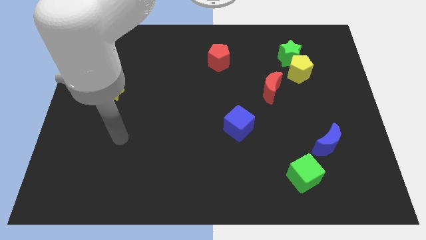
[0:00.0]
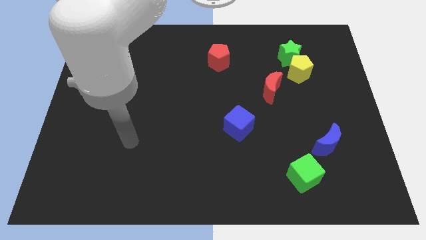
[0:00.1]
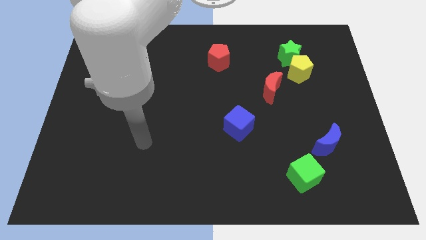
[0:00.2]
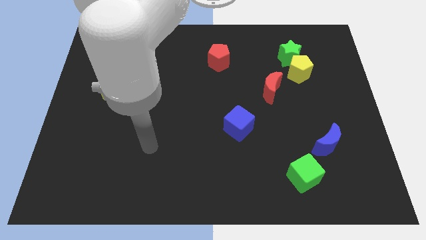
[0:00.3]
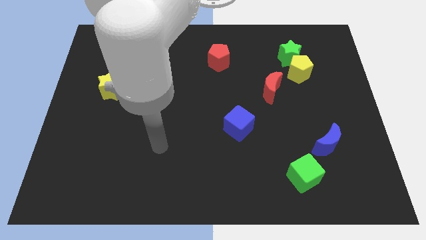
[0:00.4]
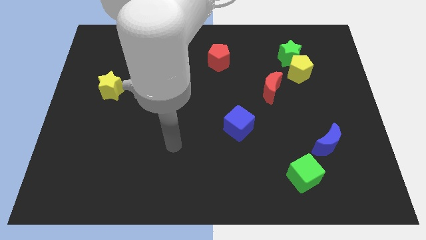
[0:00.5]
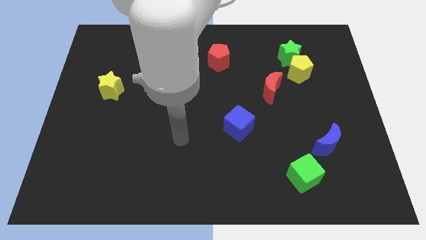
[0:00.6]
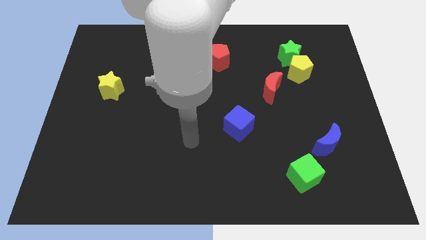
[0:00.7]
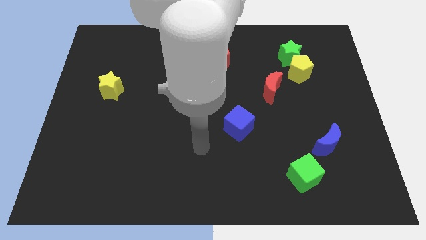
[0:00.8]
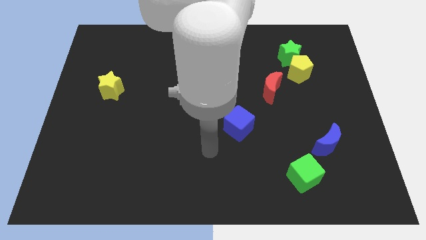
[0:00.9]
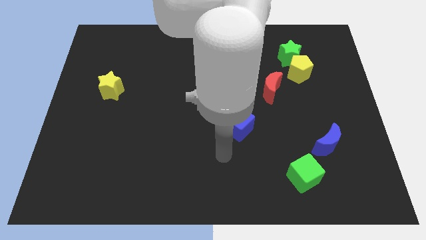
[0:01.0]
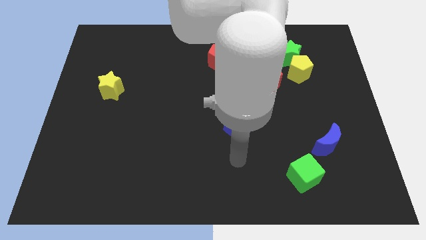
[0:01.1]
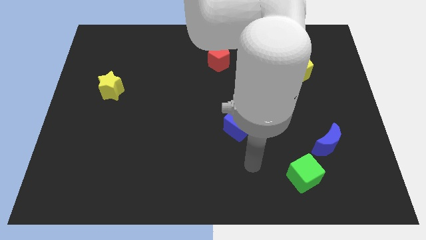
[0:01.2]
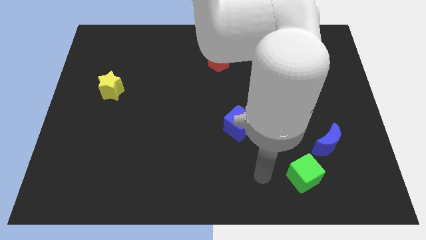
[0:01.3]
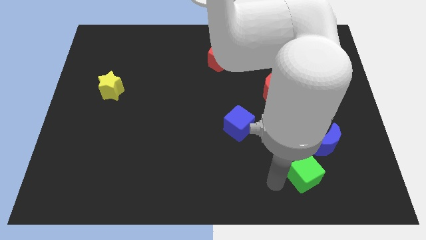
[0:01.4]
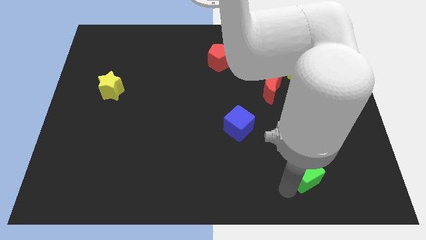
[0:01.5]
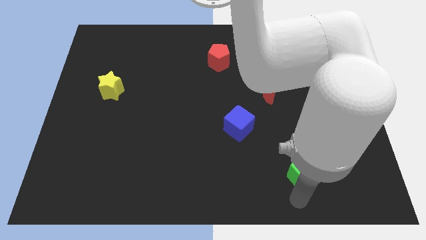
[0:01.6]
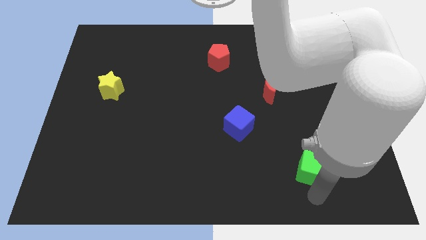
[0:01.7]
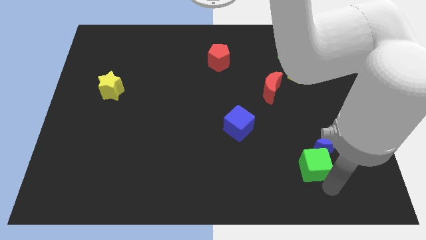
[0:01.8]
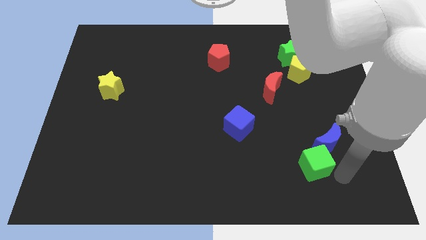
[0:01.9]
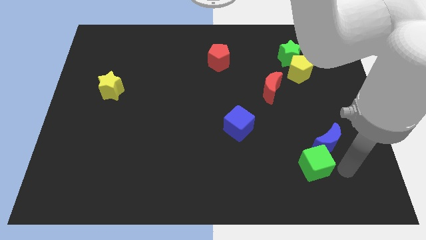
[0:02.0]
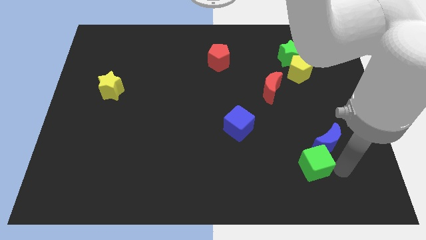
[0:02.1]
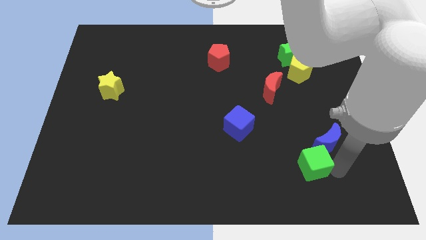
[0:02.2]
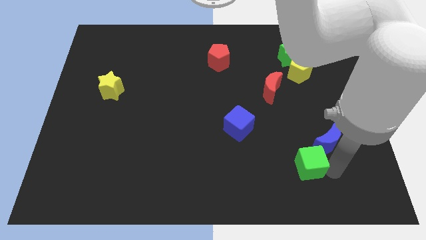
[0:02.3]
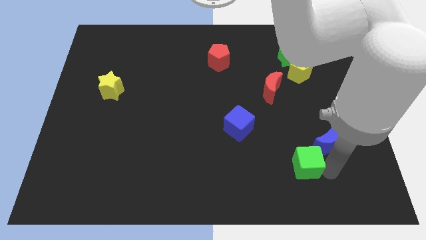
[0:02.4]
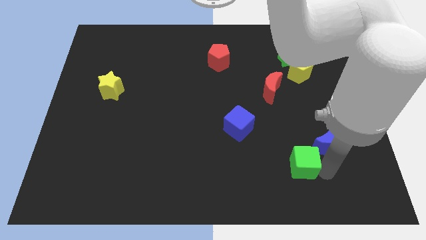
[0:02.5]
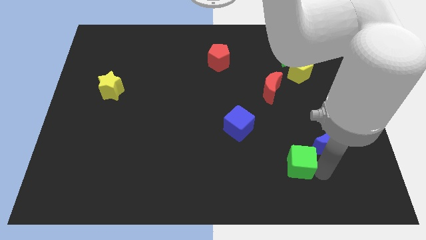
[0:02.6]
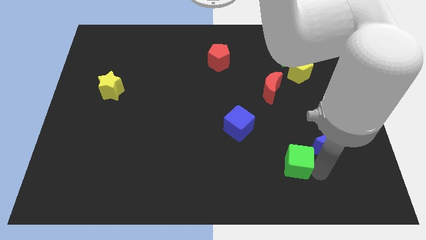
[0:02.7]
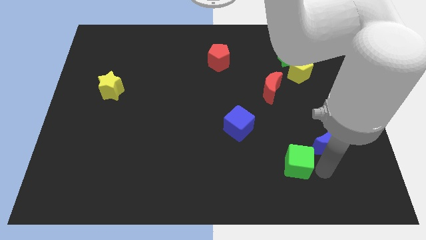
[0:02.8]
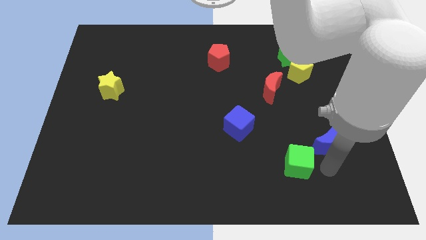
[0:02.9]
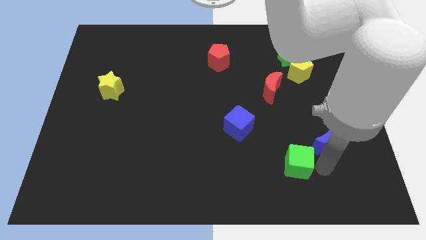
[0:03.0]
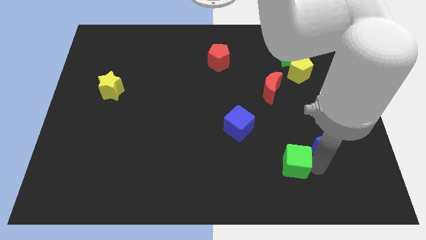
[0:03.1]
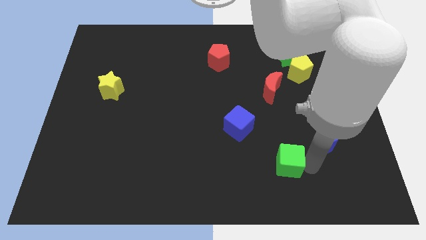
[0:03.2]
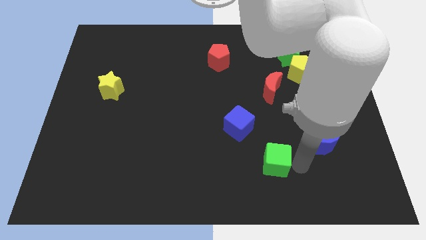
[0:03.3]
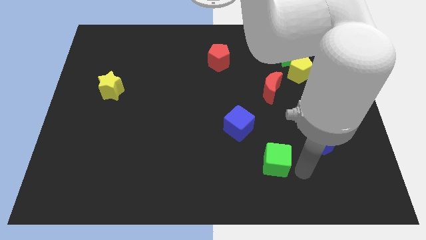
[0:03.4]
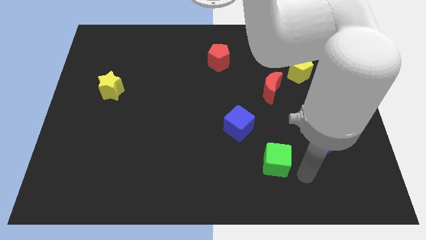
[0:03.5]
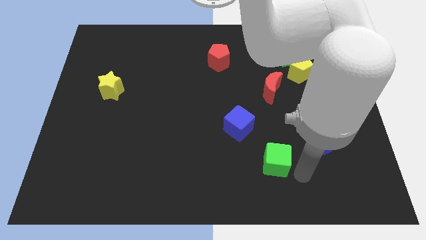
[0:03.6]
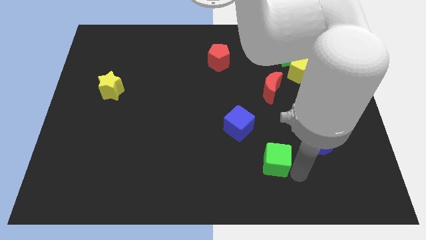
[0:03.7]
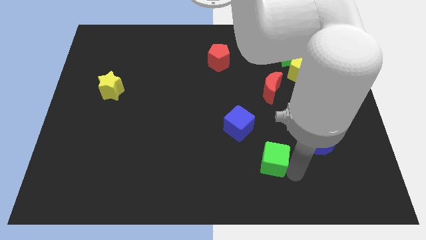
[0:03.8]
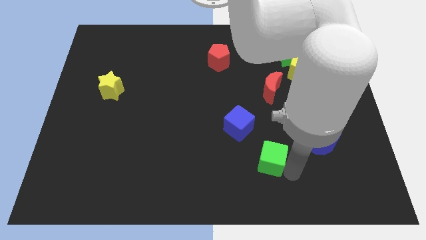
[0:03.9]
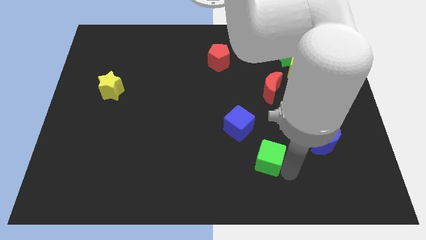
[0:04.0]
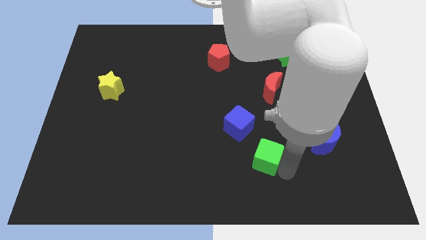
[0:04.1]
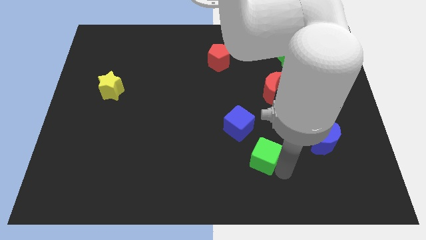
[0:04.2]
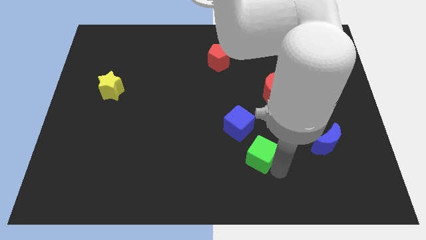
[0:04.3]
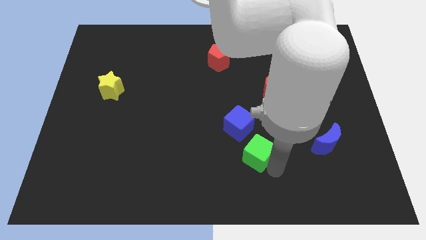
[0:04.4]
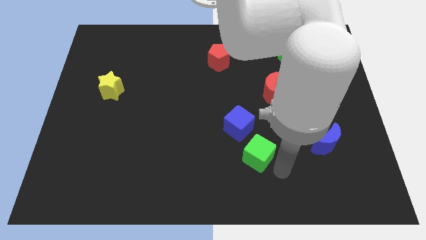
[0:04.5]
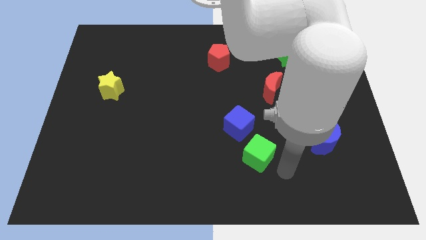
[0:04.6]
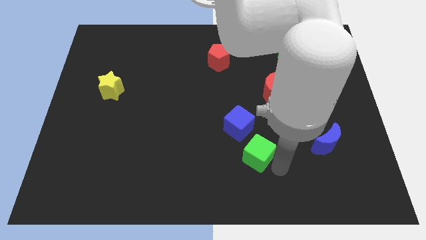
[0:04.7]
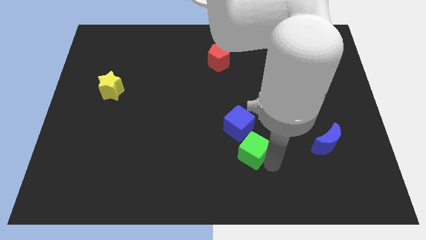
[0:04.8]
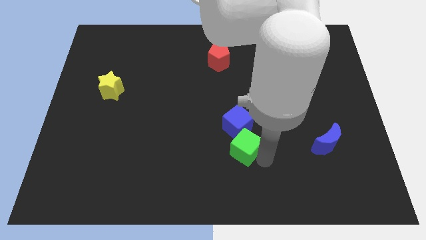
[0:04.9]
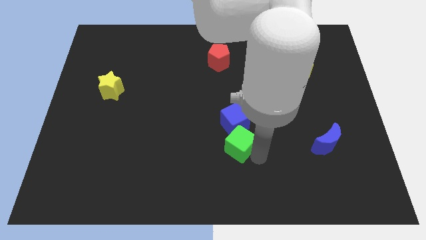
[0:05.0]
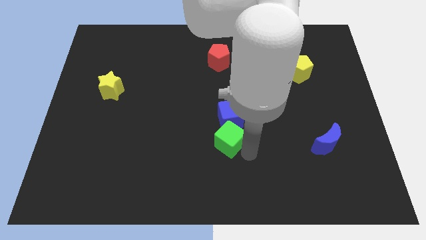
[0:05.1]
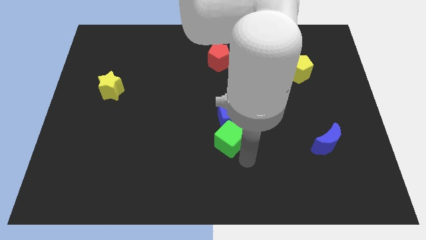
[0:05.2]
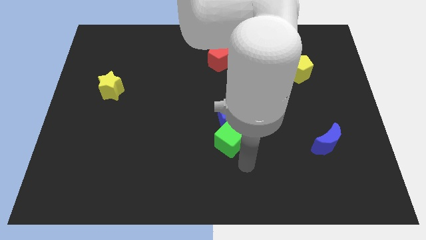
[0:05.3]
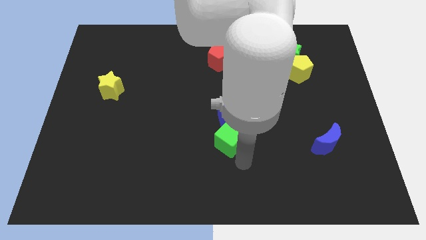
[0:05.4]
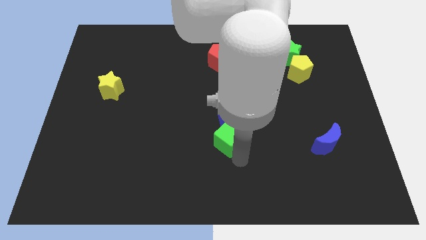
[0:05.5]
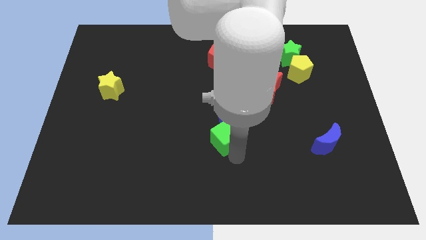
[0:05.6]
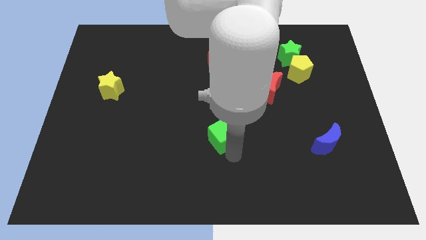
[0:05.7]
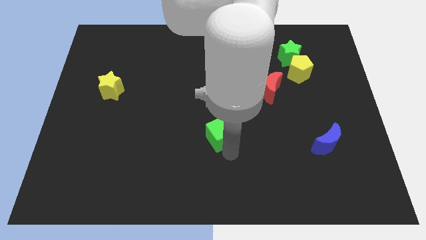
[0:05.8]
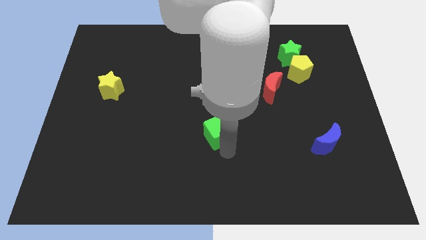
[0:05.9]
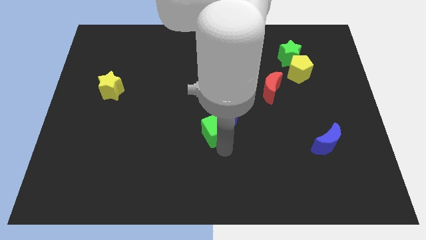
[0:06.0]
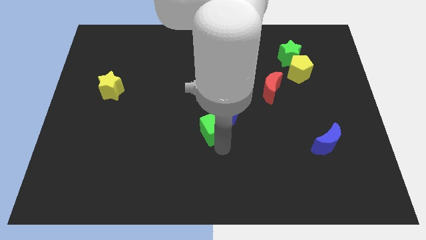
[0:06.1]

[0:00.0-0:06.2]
move the green cube upwards and then to the left

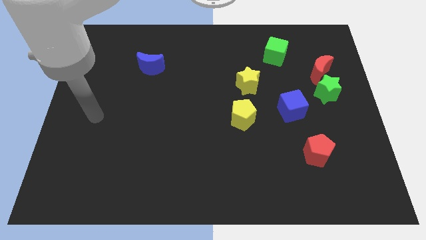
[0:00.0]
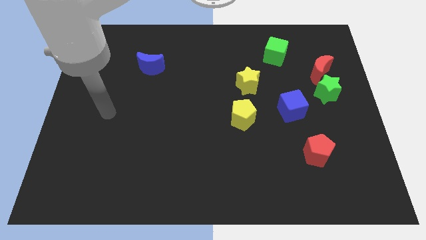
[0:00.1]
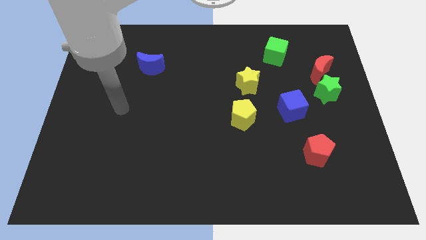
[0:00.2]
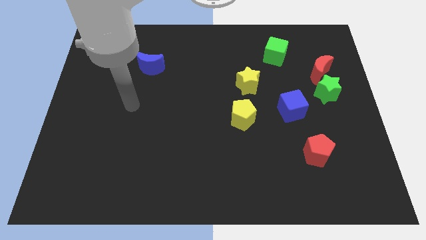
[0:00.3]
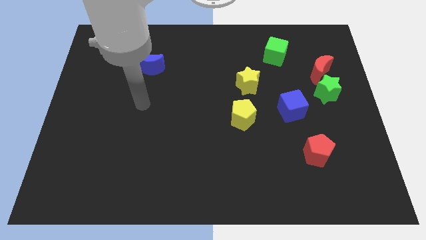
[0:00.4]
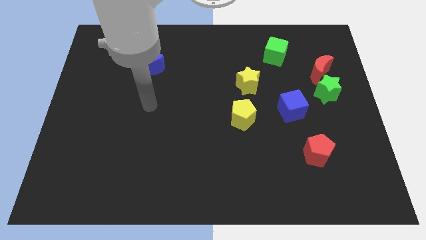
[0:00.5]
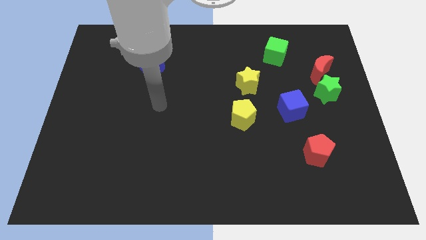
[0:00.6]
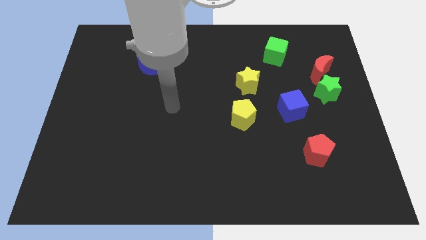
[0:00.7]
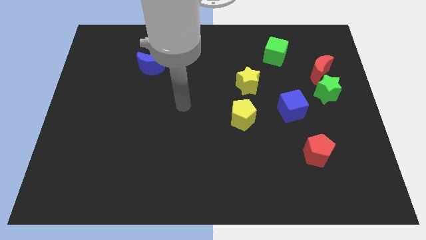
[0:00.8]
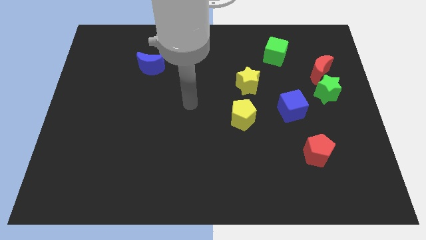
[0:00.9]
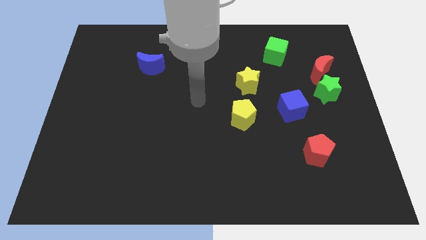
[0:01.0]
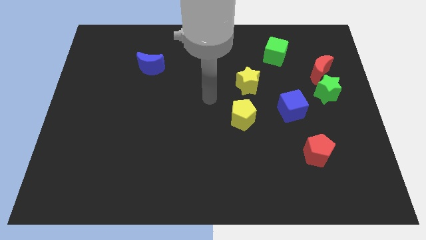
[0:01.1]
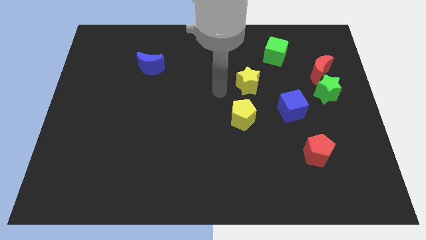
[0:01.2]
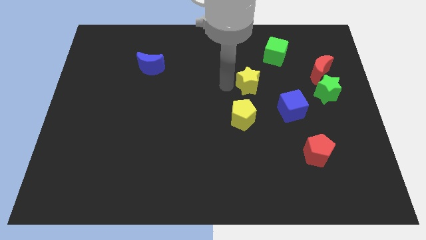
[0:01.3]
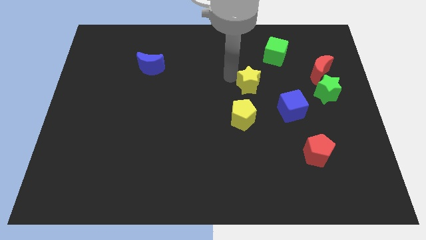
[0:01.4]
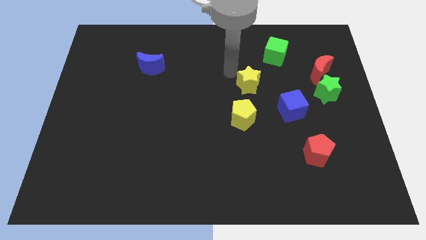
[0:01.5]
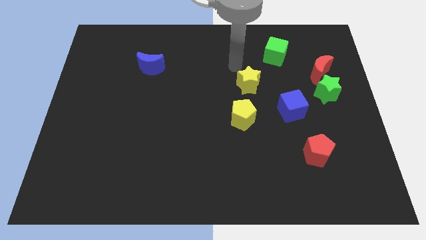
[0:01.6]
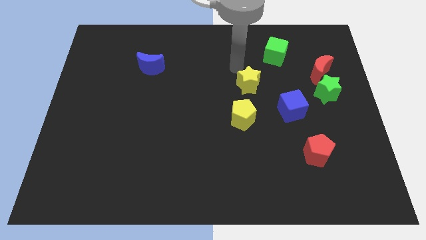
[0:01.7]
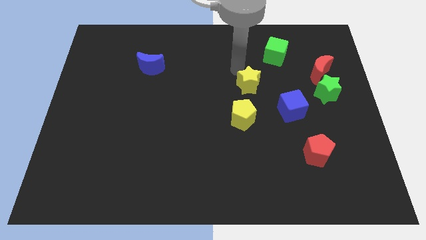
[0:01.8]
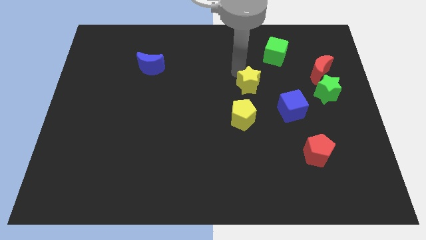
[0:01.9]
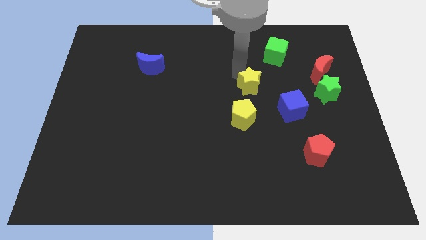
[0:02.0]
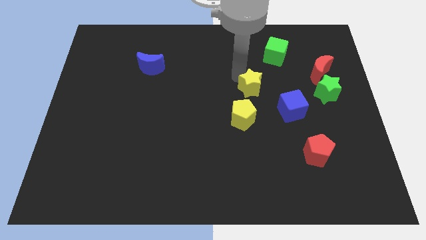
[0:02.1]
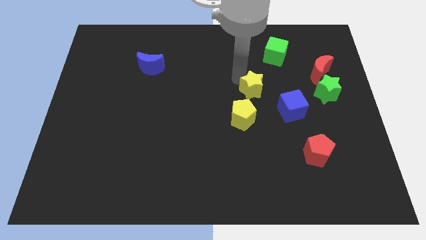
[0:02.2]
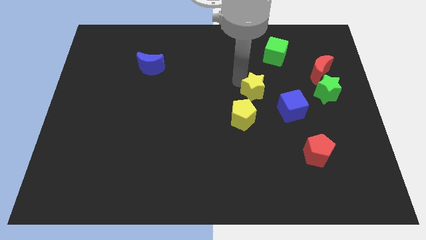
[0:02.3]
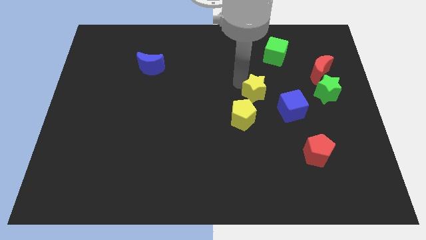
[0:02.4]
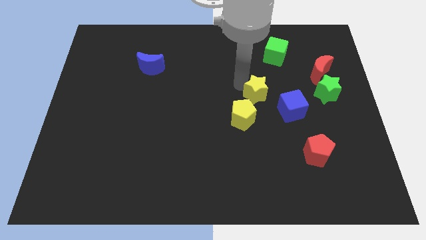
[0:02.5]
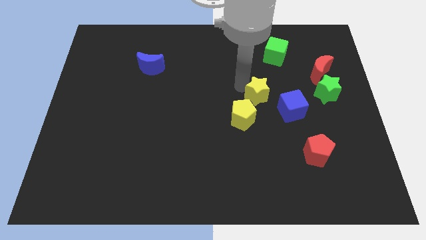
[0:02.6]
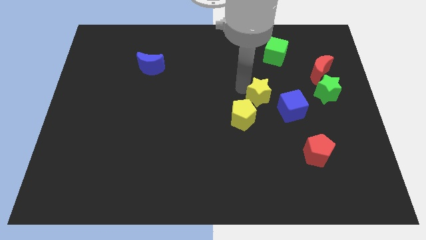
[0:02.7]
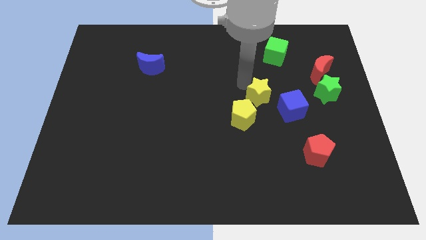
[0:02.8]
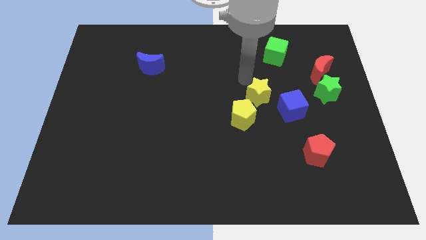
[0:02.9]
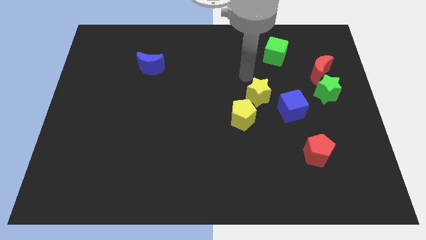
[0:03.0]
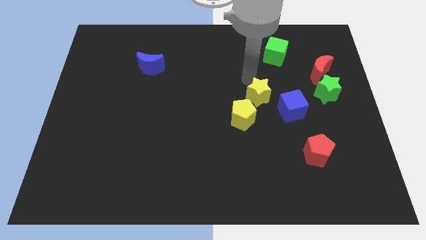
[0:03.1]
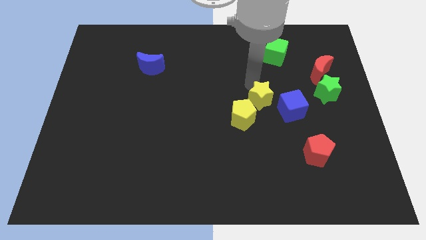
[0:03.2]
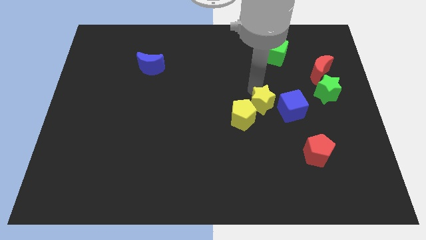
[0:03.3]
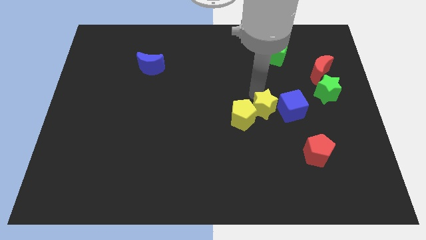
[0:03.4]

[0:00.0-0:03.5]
push the yellow star slightly down and to the right
